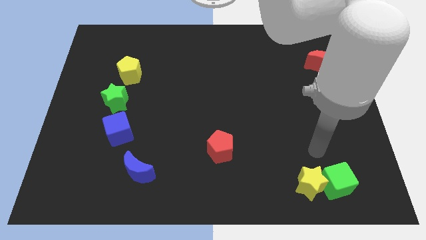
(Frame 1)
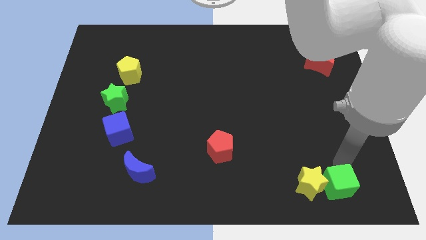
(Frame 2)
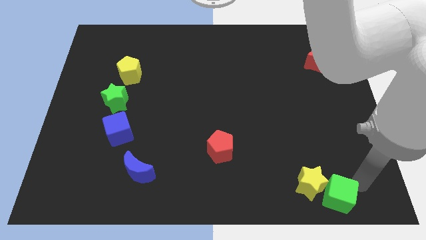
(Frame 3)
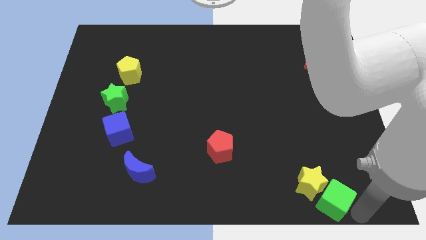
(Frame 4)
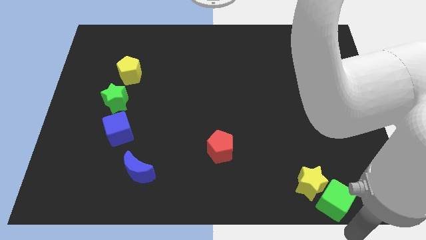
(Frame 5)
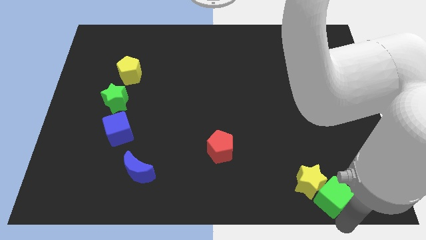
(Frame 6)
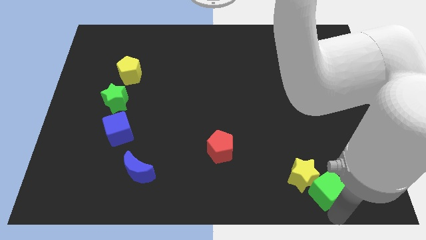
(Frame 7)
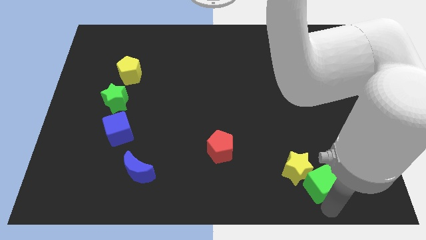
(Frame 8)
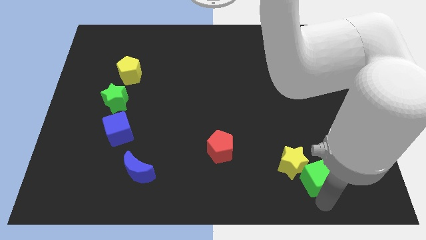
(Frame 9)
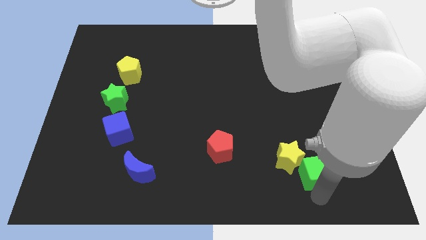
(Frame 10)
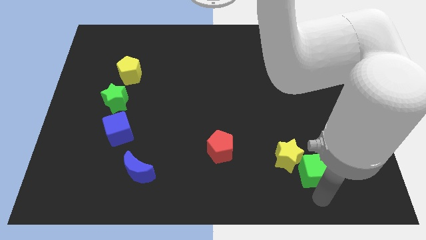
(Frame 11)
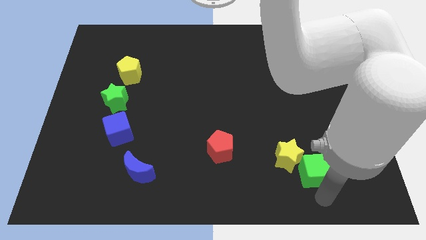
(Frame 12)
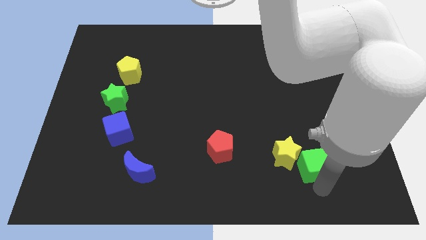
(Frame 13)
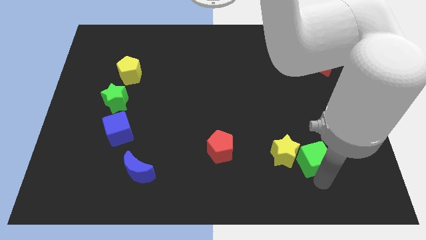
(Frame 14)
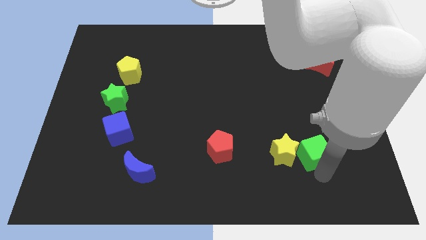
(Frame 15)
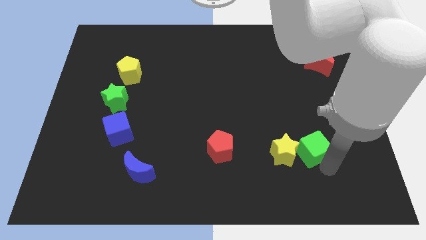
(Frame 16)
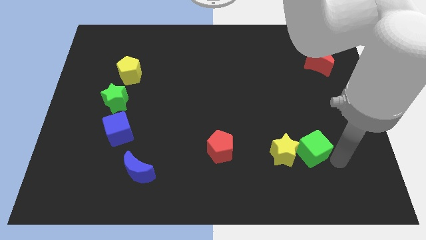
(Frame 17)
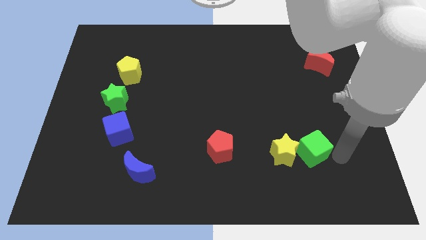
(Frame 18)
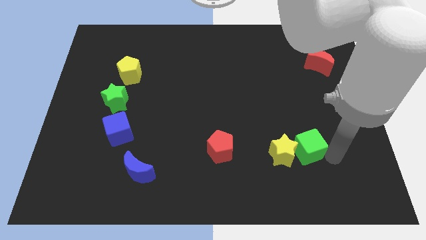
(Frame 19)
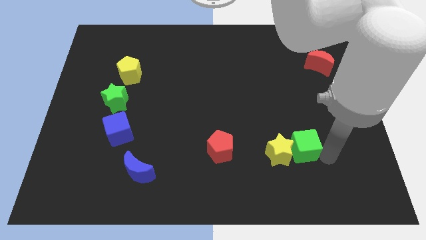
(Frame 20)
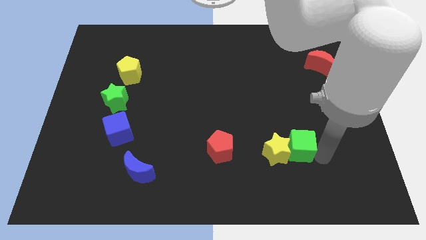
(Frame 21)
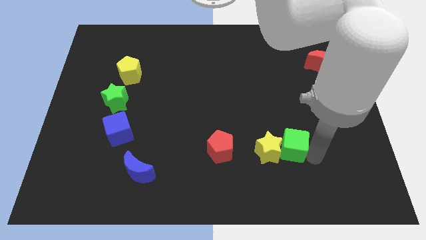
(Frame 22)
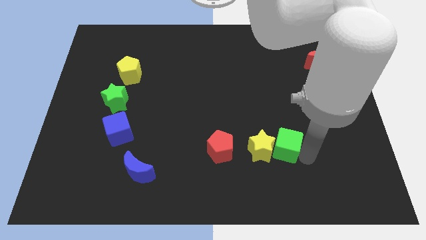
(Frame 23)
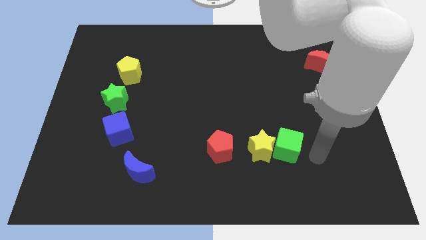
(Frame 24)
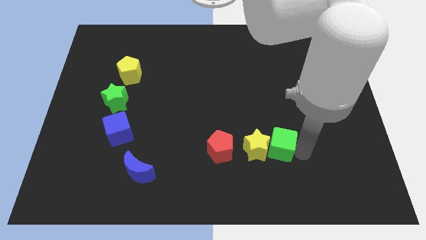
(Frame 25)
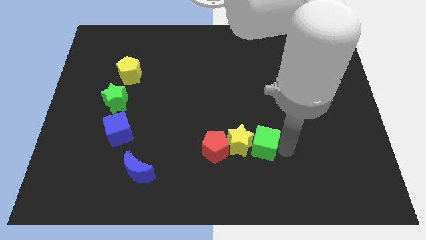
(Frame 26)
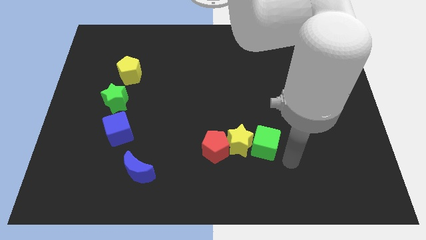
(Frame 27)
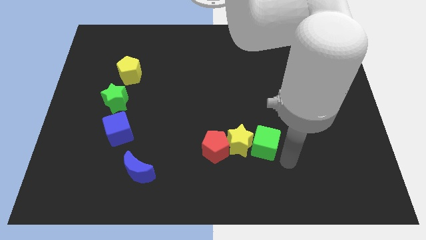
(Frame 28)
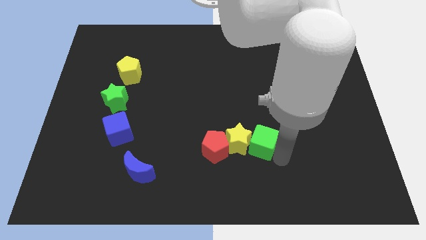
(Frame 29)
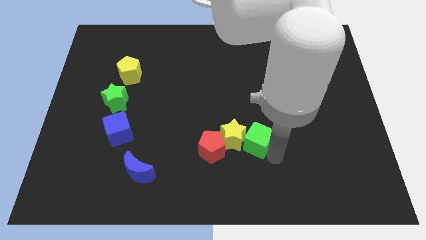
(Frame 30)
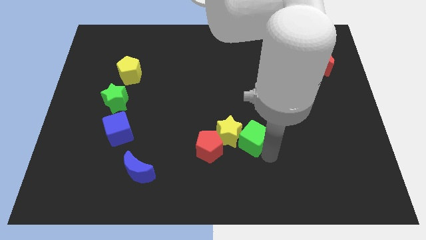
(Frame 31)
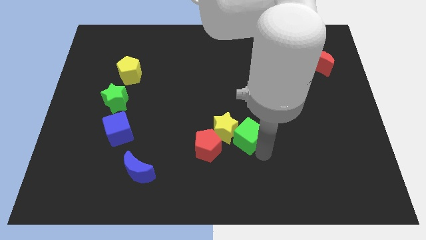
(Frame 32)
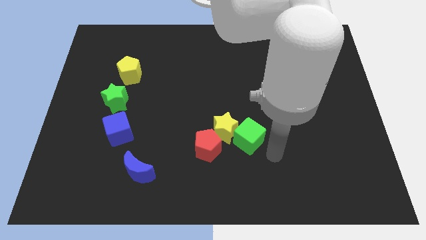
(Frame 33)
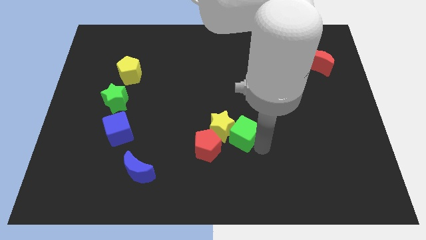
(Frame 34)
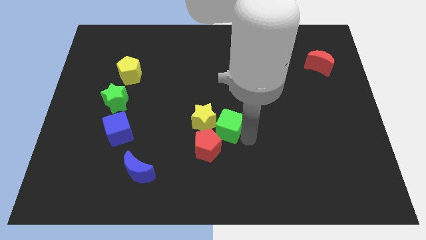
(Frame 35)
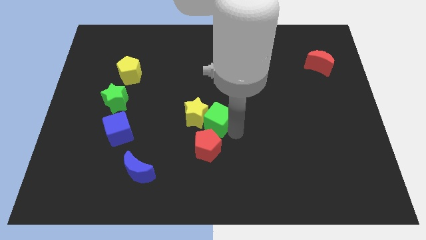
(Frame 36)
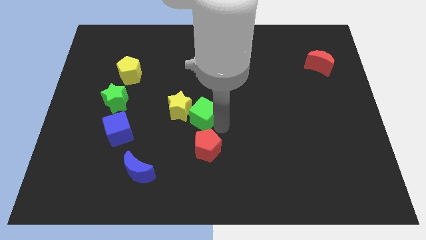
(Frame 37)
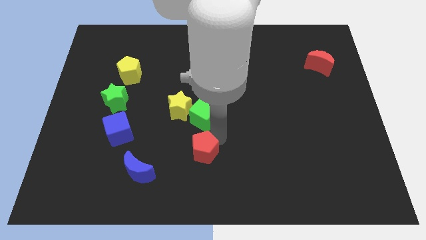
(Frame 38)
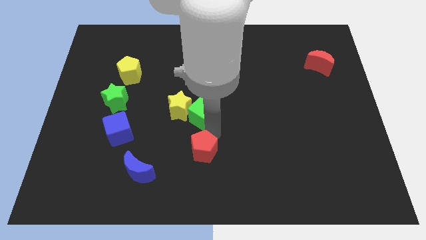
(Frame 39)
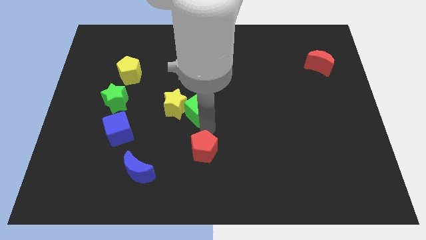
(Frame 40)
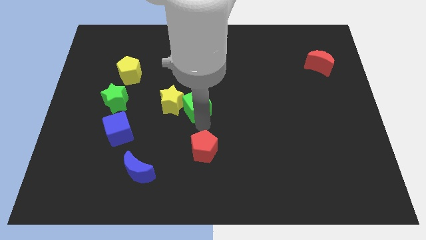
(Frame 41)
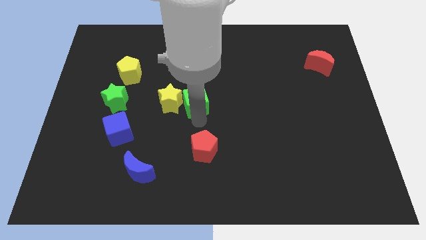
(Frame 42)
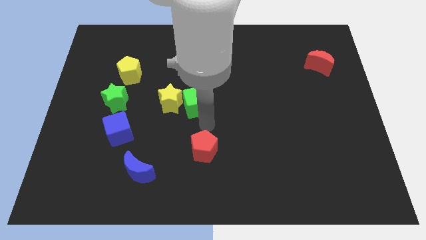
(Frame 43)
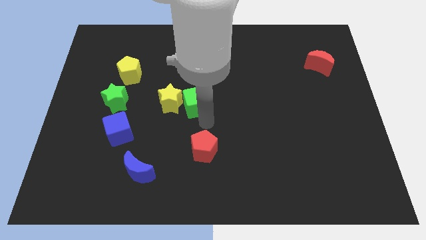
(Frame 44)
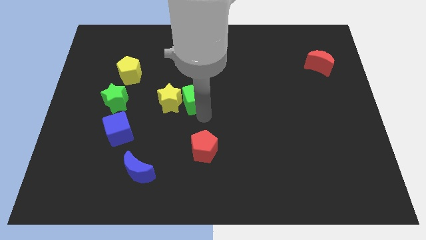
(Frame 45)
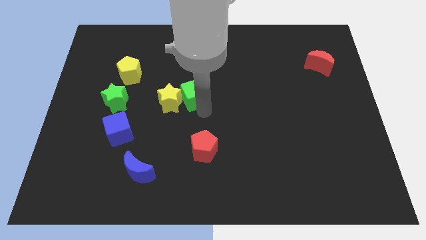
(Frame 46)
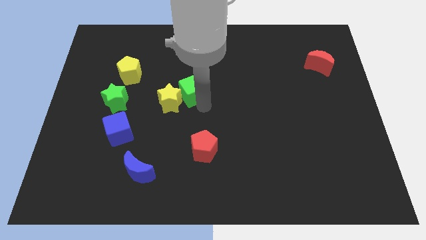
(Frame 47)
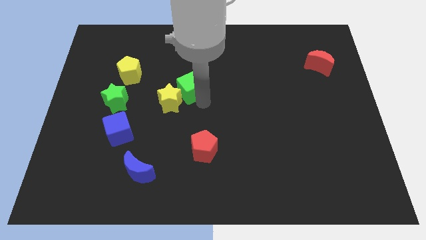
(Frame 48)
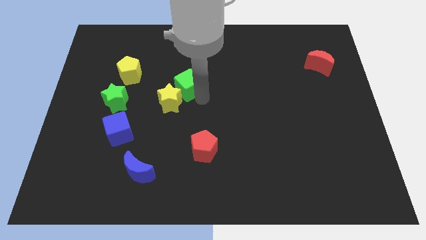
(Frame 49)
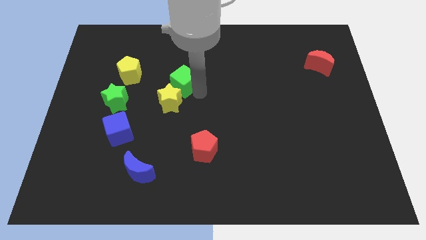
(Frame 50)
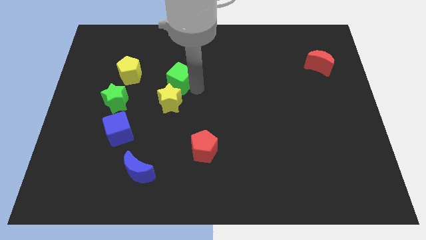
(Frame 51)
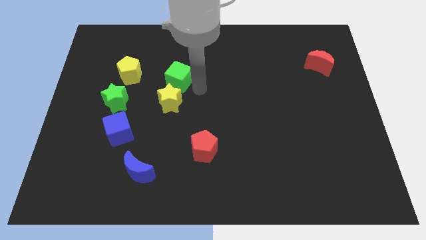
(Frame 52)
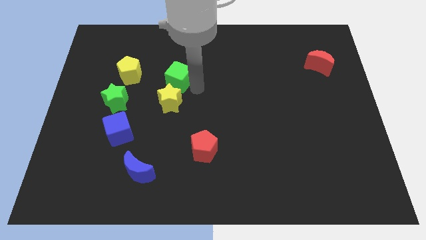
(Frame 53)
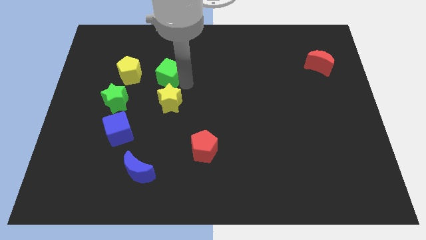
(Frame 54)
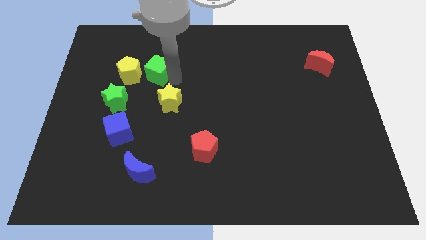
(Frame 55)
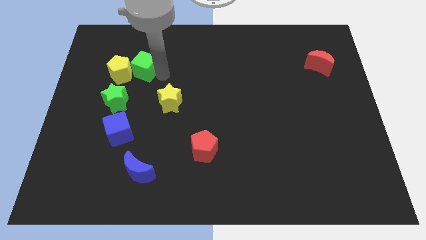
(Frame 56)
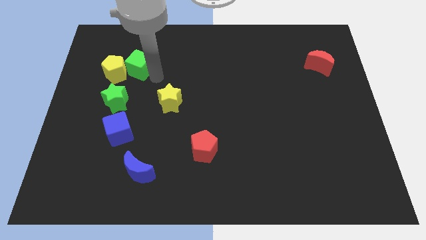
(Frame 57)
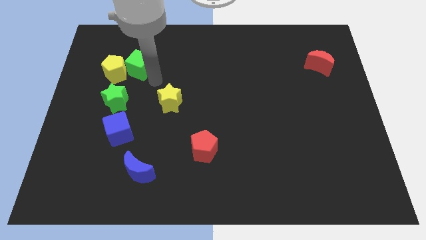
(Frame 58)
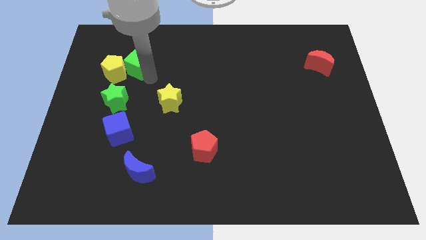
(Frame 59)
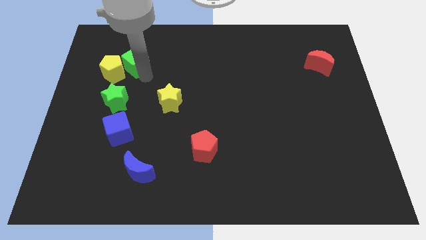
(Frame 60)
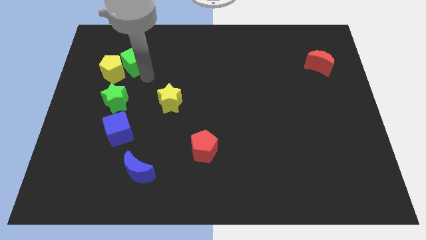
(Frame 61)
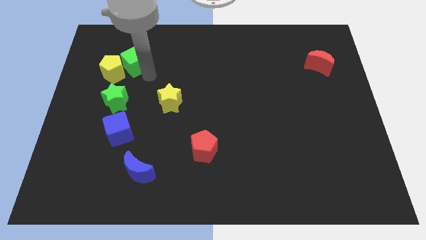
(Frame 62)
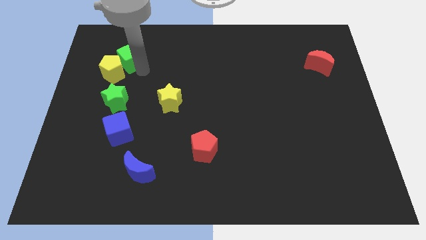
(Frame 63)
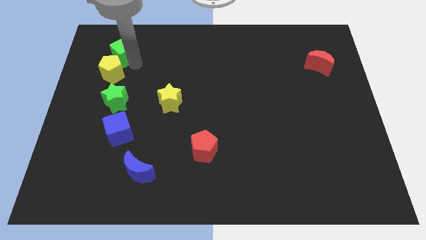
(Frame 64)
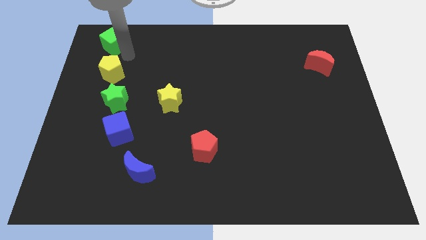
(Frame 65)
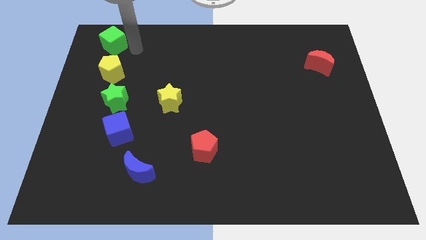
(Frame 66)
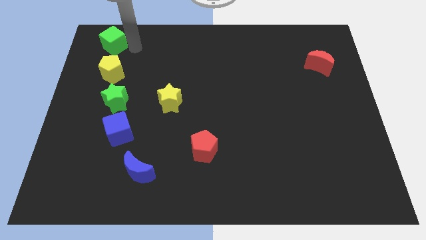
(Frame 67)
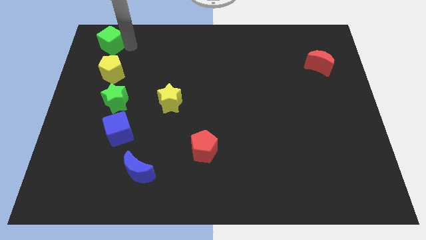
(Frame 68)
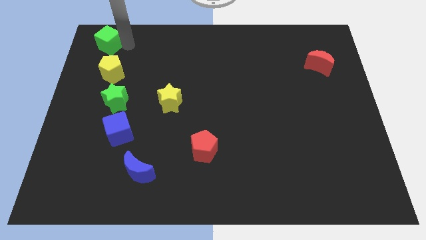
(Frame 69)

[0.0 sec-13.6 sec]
put the green cube to the upper left corner

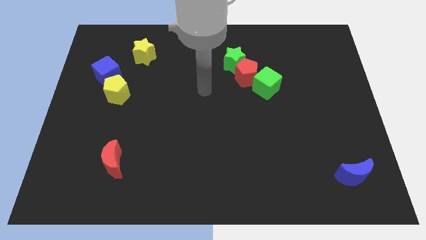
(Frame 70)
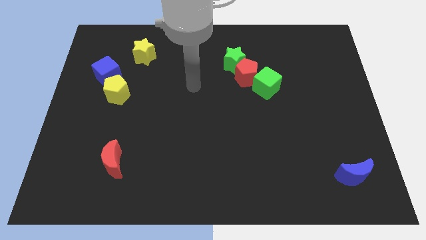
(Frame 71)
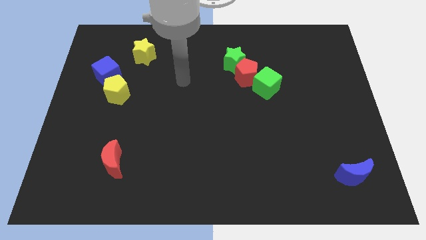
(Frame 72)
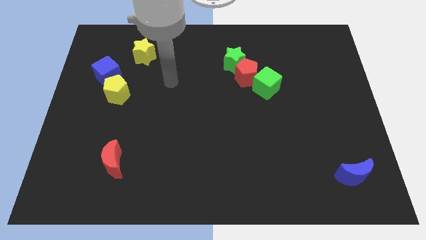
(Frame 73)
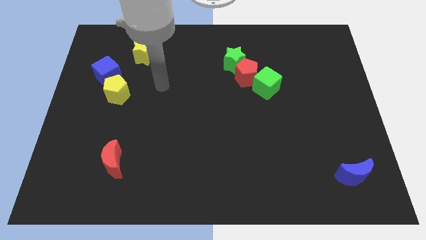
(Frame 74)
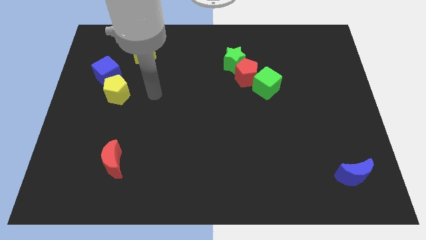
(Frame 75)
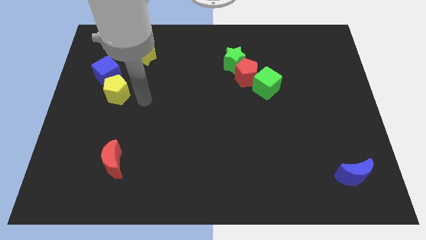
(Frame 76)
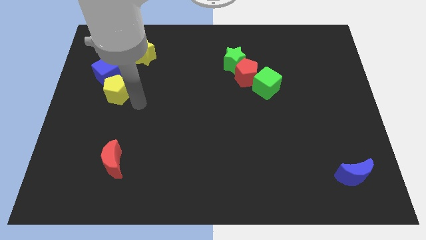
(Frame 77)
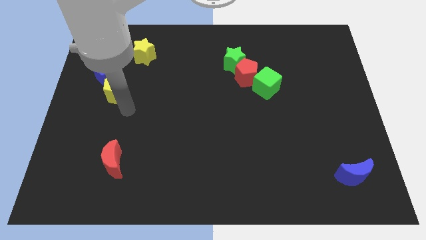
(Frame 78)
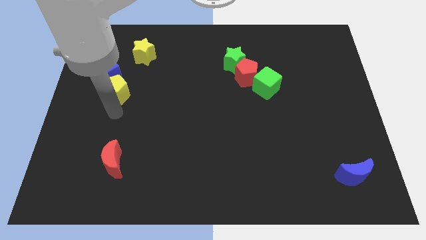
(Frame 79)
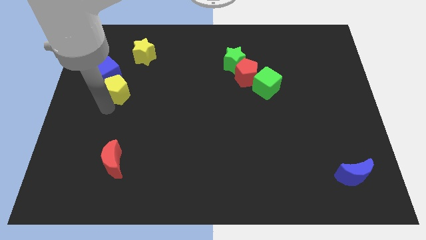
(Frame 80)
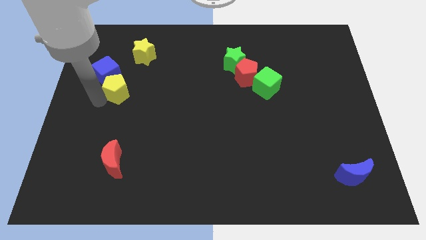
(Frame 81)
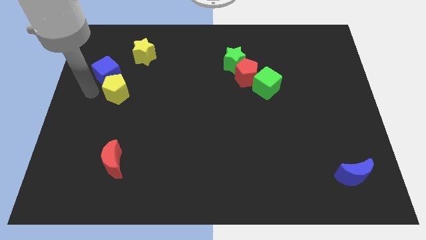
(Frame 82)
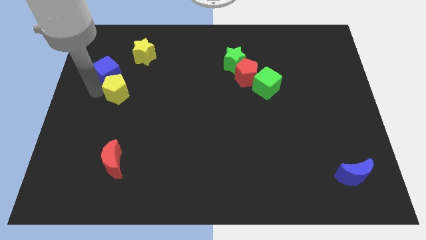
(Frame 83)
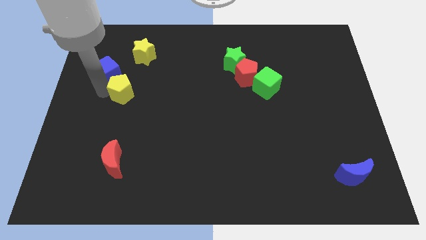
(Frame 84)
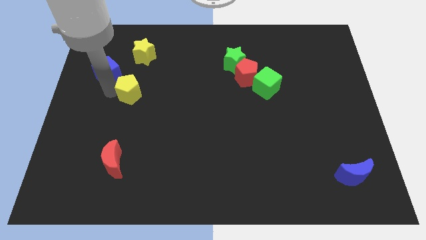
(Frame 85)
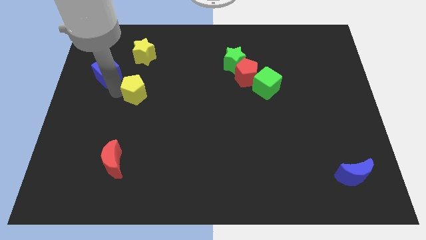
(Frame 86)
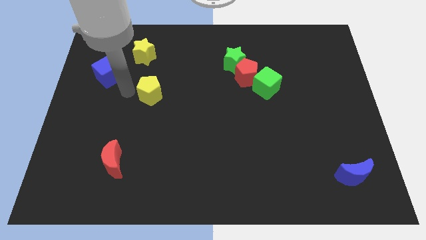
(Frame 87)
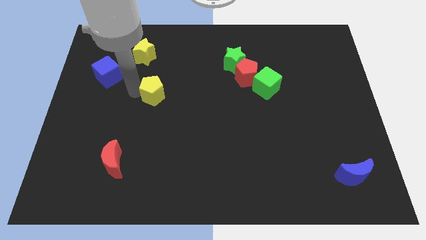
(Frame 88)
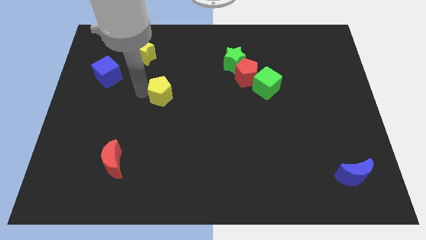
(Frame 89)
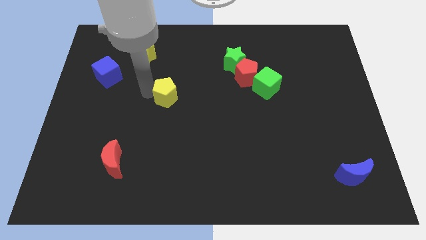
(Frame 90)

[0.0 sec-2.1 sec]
move the yellow pentagon to the center
